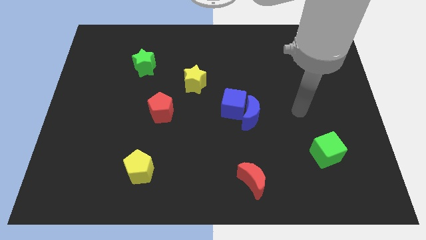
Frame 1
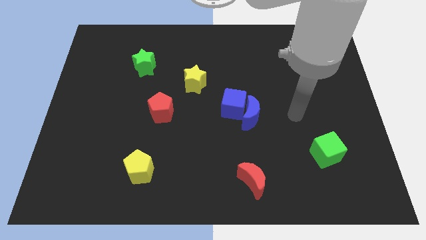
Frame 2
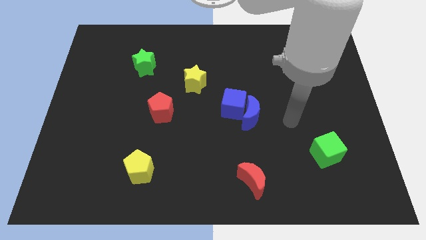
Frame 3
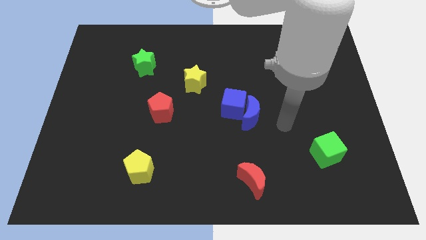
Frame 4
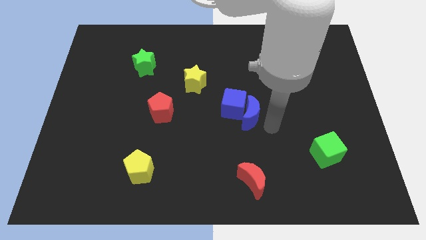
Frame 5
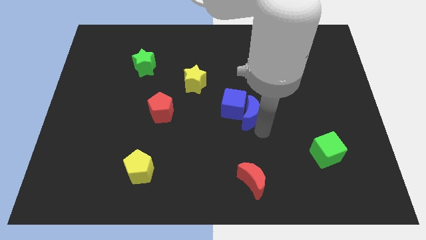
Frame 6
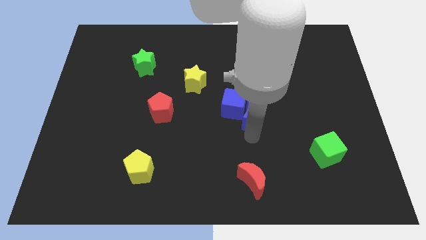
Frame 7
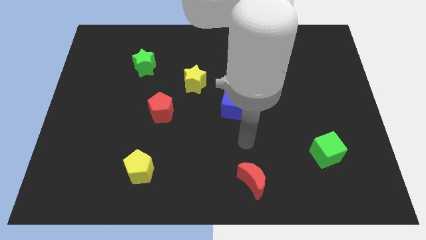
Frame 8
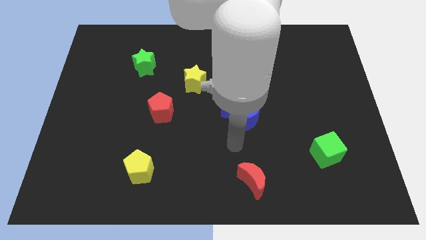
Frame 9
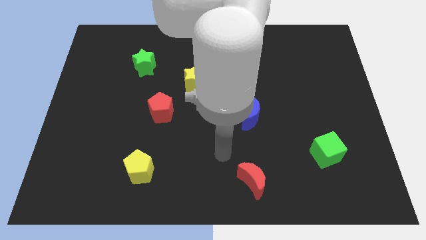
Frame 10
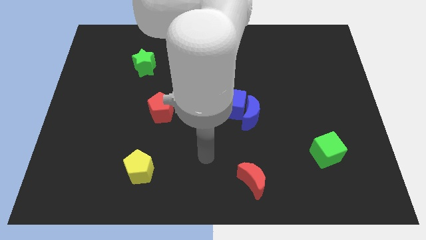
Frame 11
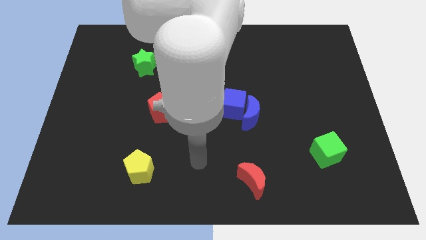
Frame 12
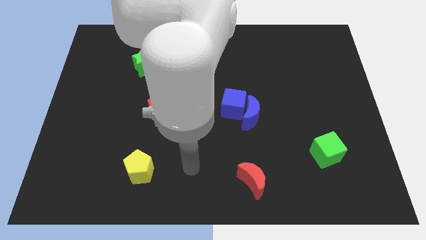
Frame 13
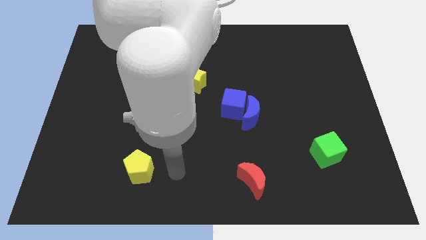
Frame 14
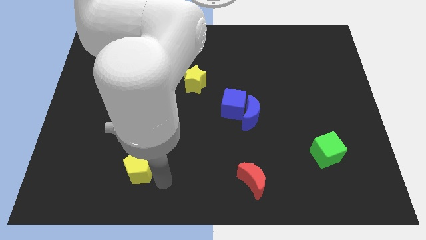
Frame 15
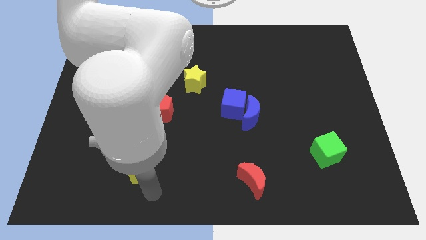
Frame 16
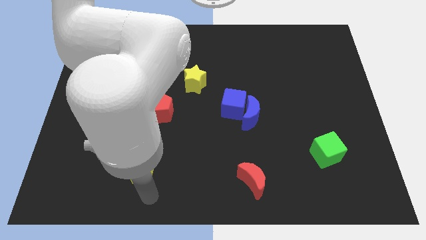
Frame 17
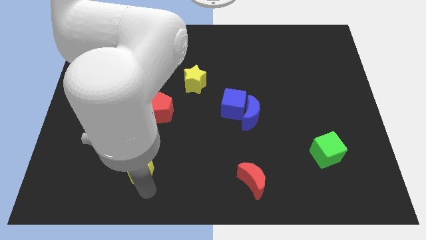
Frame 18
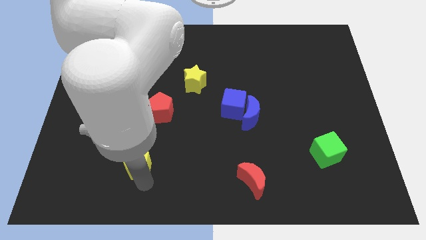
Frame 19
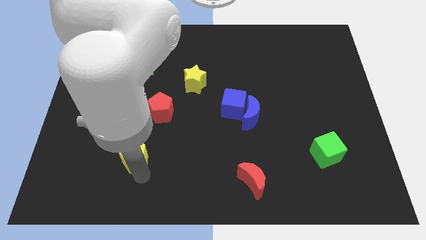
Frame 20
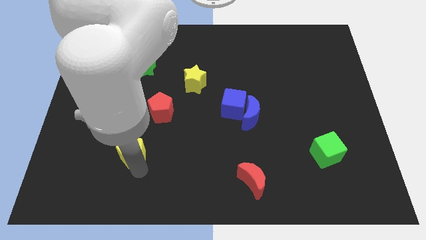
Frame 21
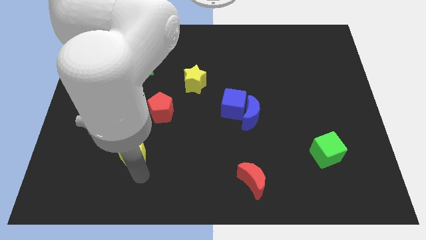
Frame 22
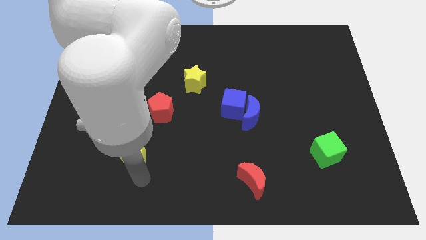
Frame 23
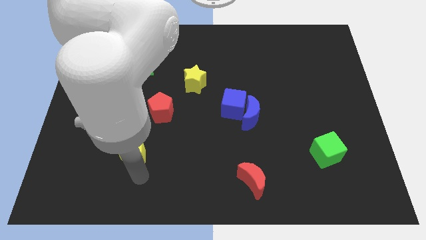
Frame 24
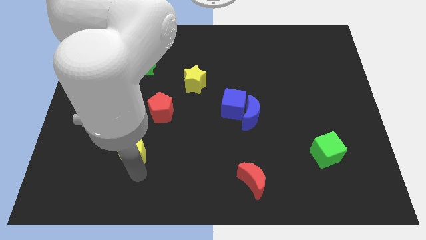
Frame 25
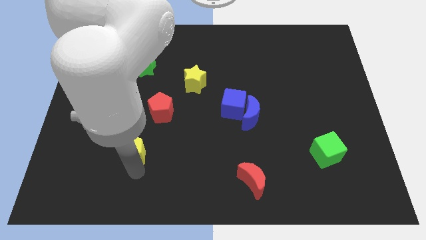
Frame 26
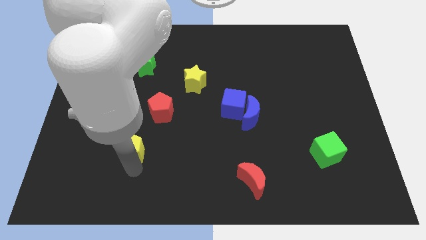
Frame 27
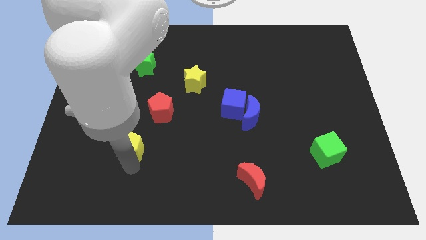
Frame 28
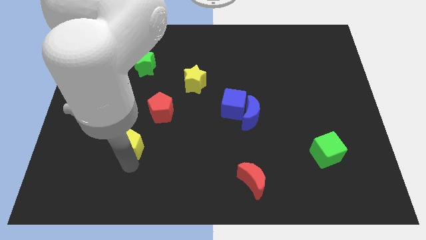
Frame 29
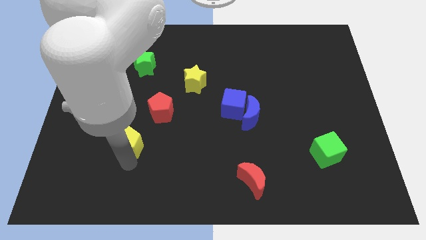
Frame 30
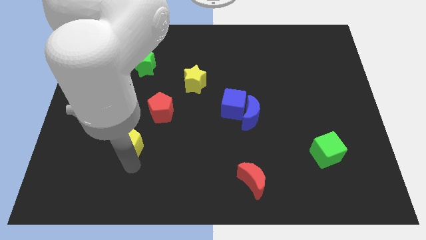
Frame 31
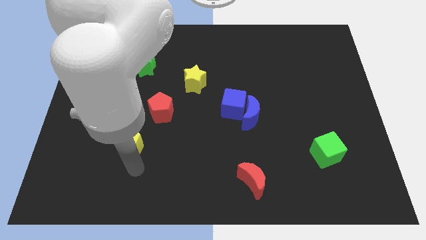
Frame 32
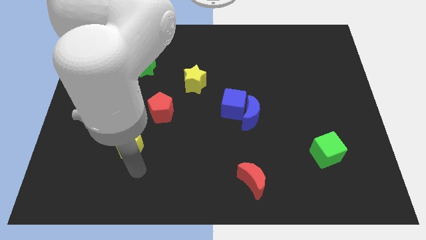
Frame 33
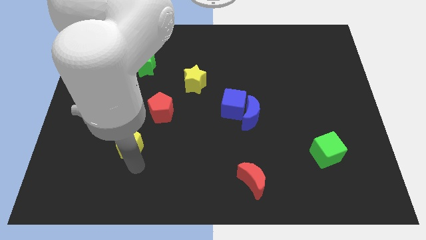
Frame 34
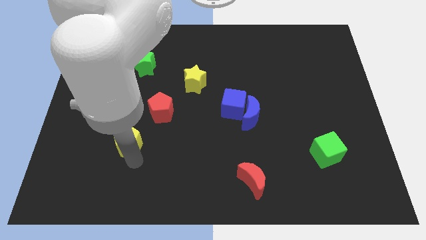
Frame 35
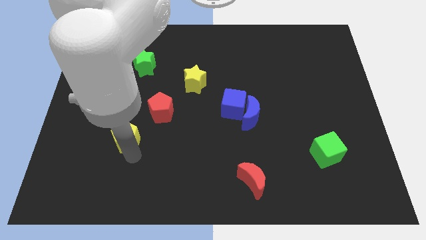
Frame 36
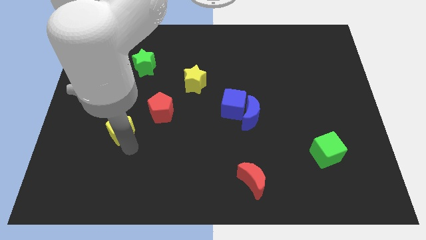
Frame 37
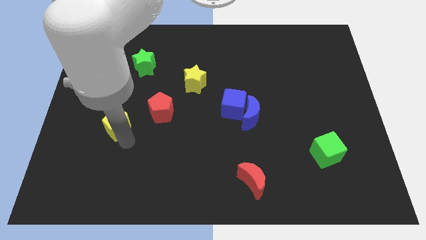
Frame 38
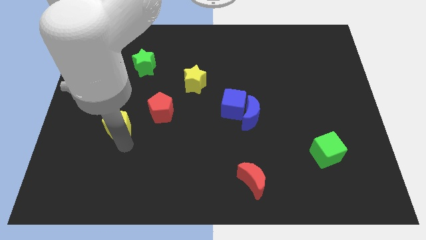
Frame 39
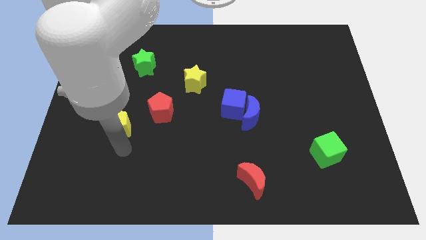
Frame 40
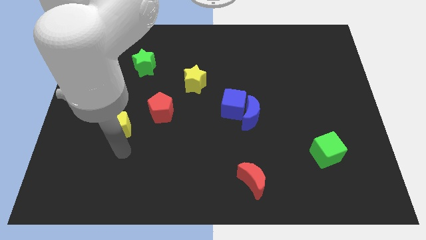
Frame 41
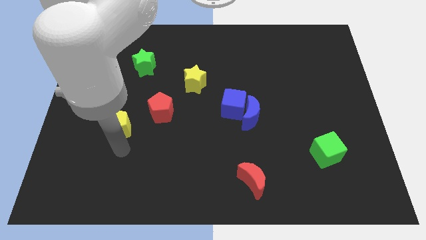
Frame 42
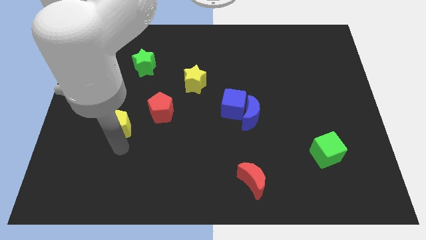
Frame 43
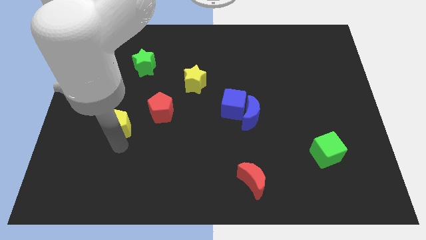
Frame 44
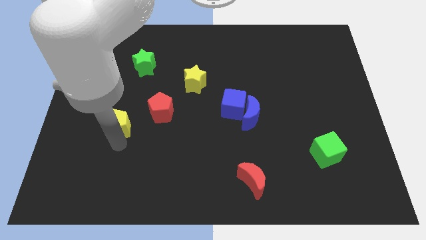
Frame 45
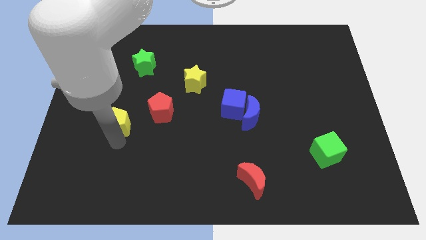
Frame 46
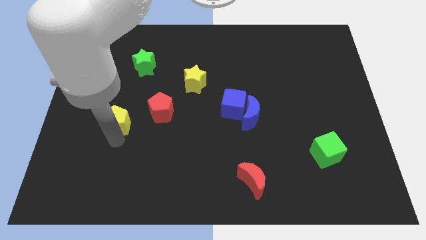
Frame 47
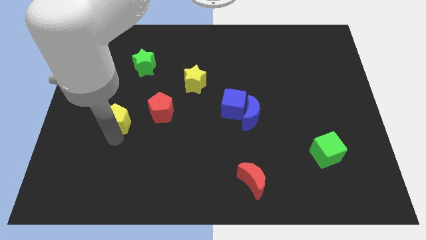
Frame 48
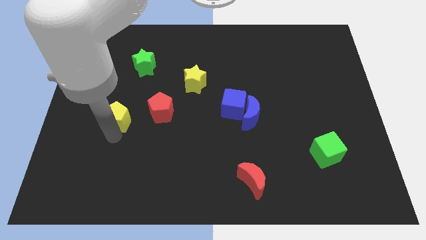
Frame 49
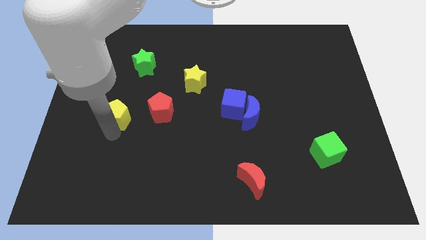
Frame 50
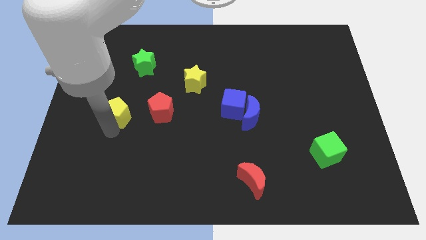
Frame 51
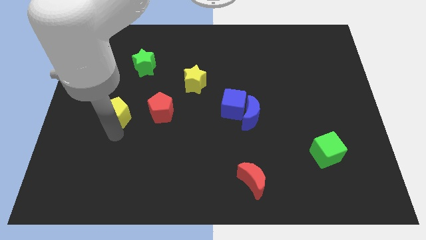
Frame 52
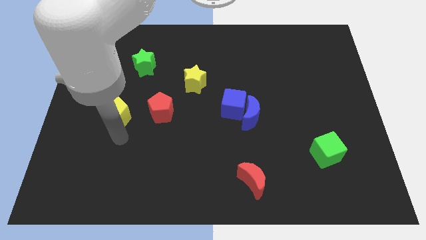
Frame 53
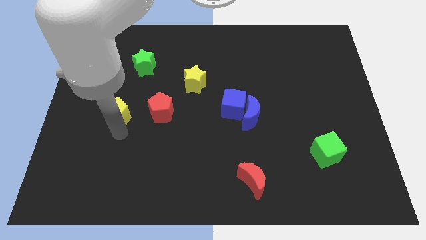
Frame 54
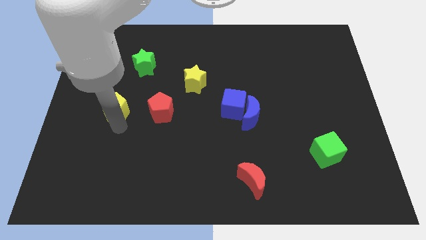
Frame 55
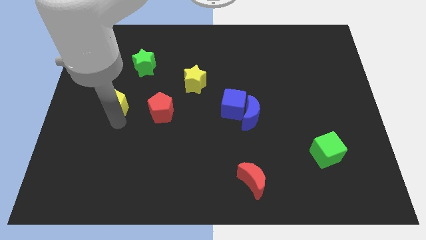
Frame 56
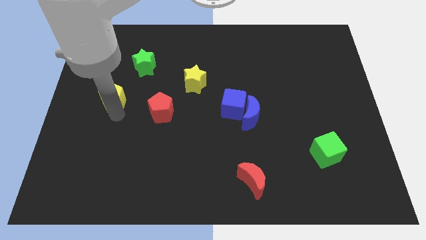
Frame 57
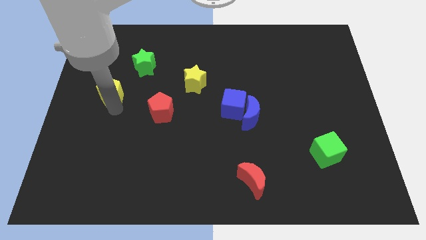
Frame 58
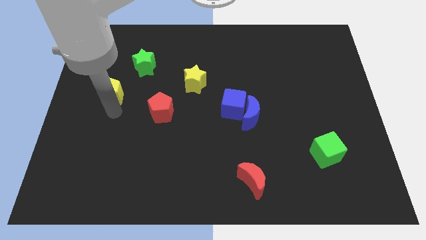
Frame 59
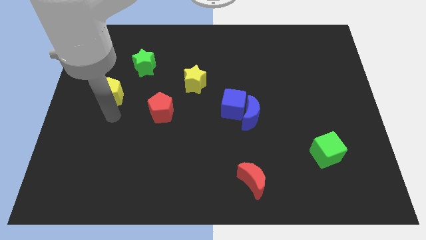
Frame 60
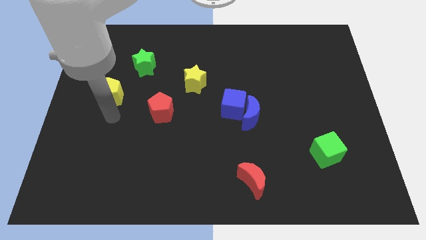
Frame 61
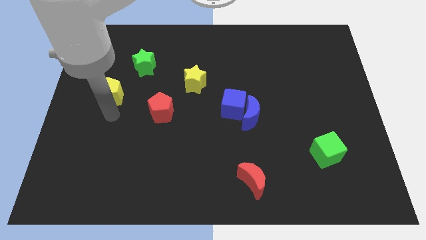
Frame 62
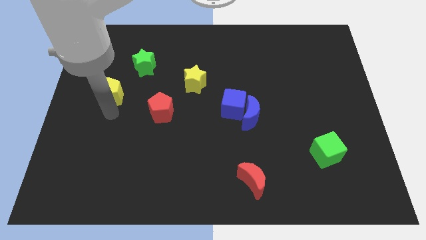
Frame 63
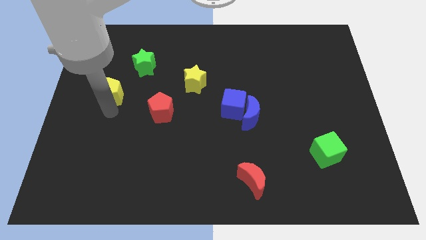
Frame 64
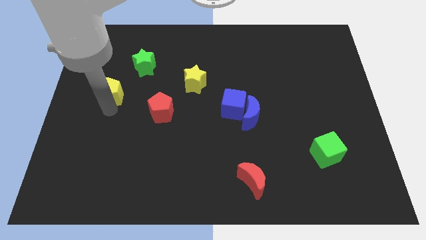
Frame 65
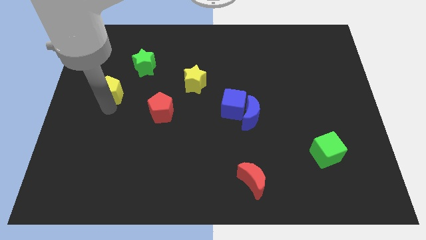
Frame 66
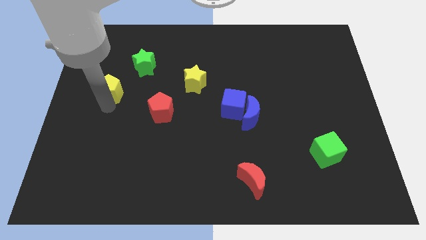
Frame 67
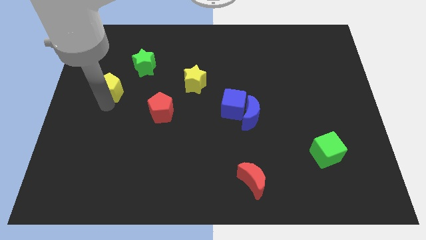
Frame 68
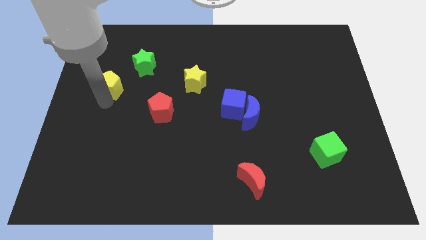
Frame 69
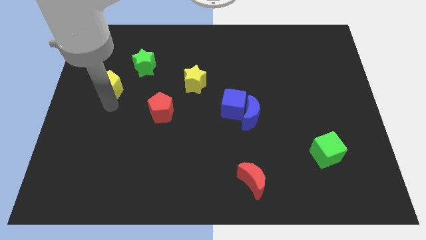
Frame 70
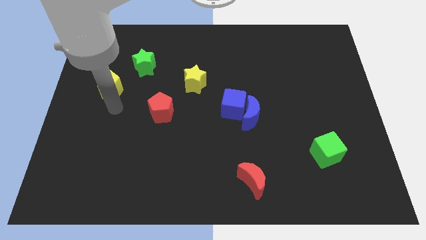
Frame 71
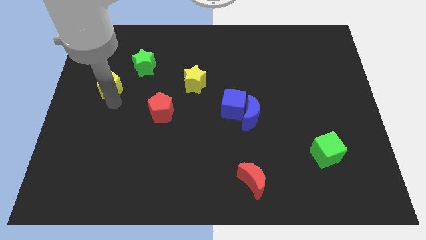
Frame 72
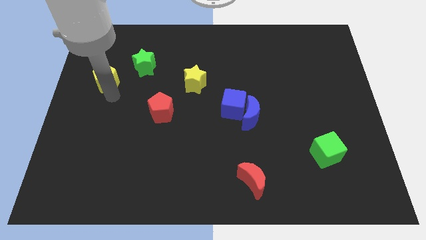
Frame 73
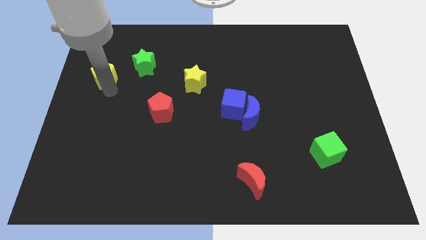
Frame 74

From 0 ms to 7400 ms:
put the yellow pentagon to the left of the green star
